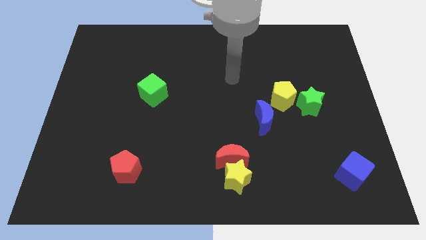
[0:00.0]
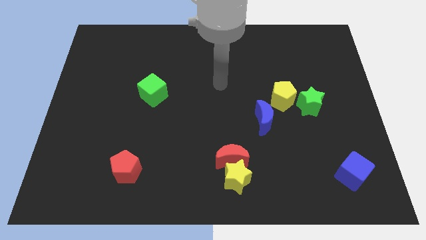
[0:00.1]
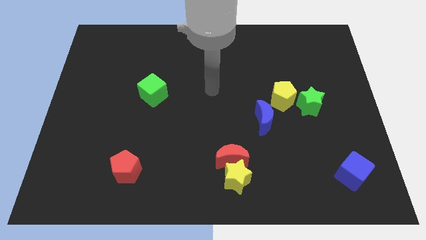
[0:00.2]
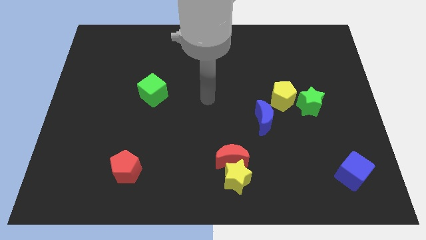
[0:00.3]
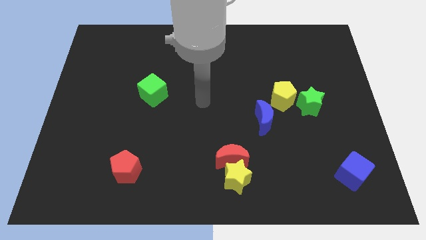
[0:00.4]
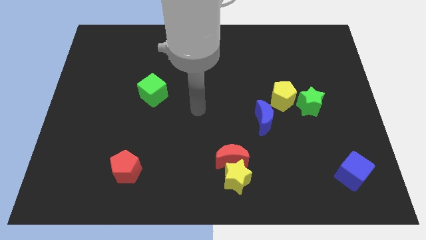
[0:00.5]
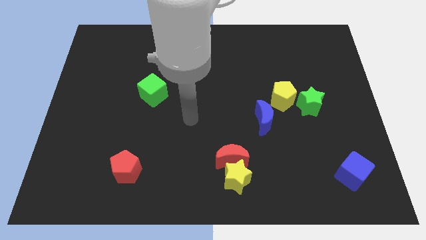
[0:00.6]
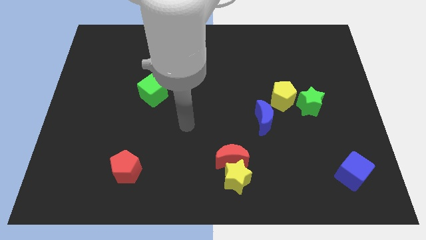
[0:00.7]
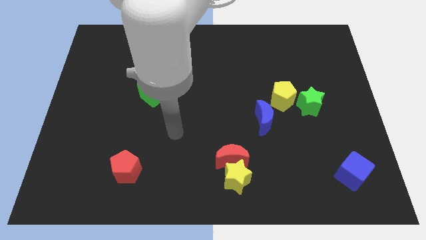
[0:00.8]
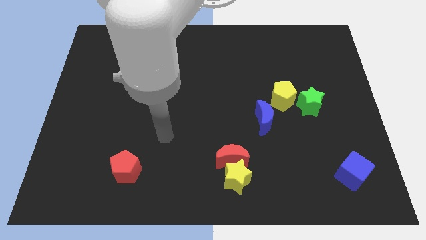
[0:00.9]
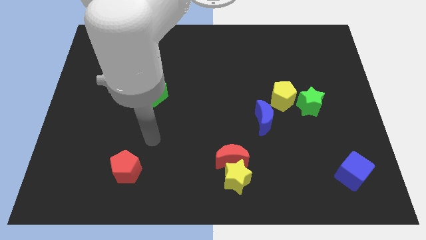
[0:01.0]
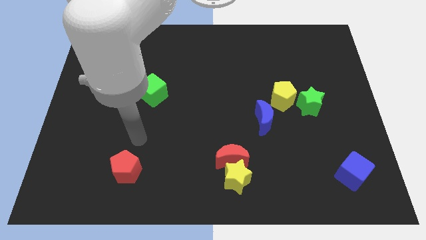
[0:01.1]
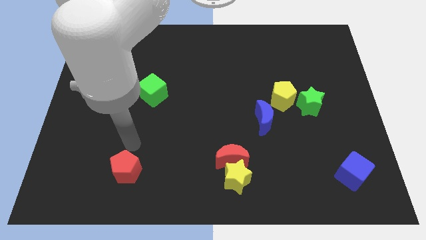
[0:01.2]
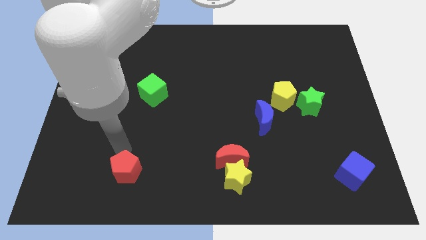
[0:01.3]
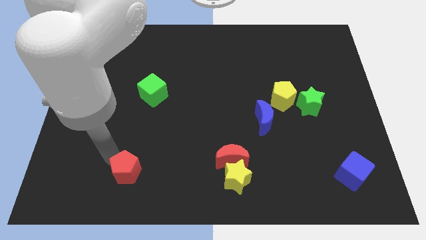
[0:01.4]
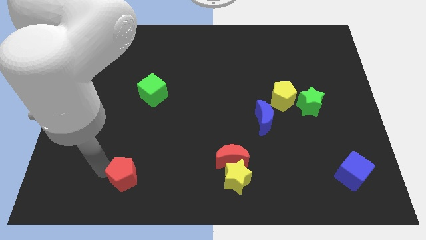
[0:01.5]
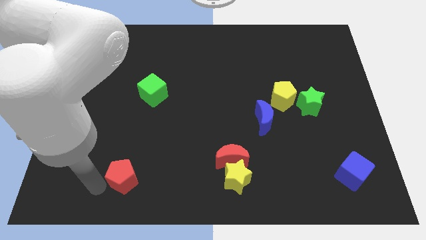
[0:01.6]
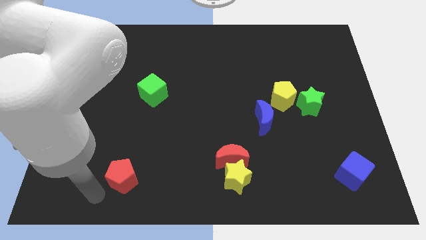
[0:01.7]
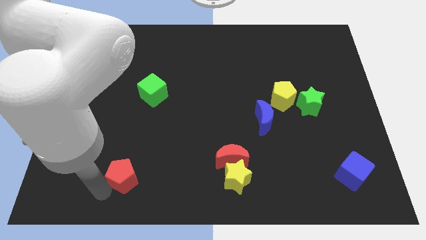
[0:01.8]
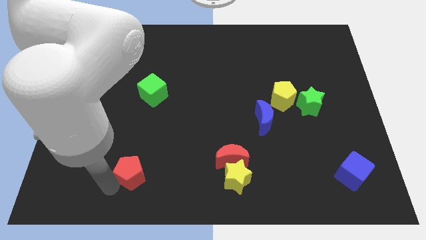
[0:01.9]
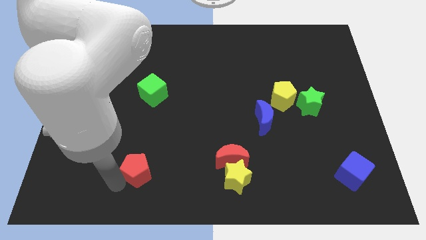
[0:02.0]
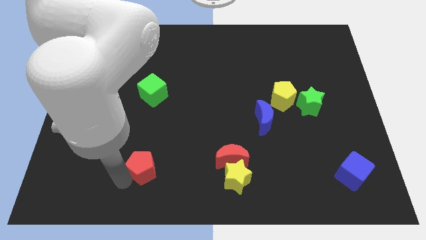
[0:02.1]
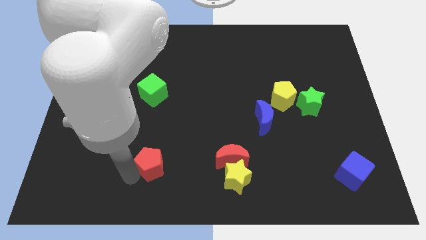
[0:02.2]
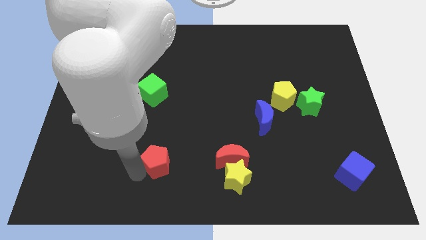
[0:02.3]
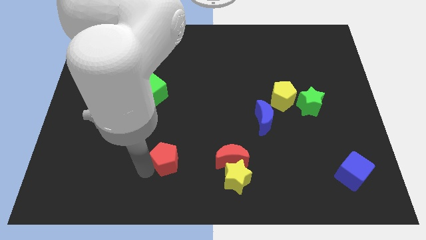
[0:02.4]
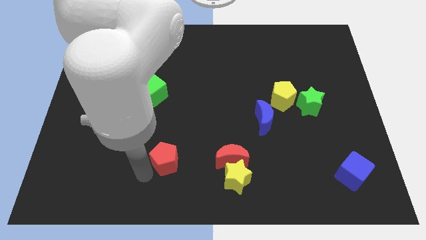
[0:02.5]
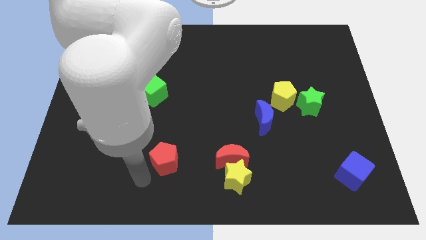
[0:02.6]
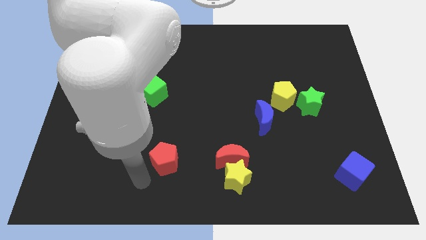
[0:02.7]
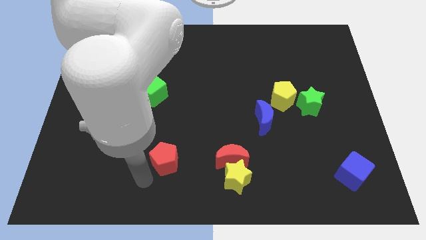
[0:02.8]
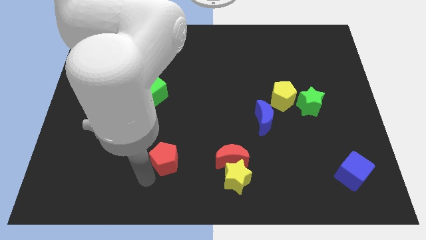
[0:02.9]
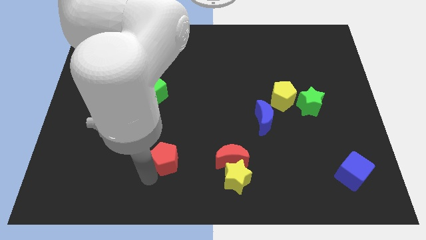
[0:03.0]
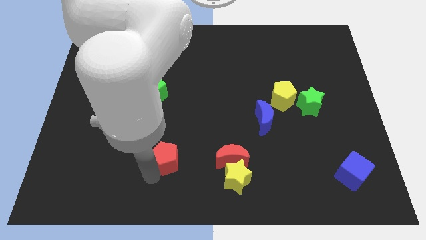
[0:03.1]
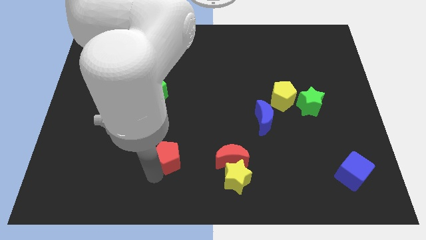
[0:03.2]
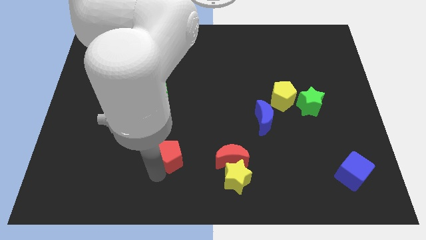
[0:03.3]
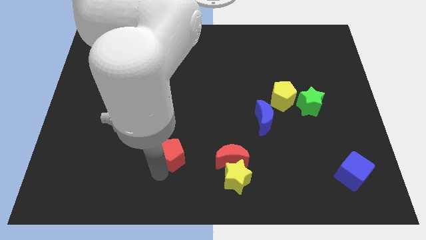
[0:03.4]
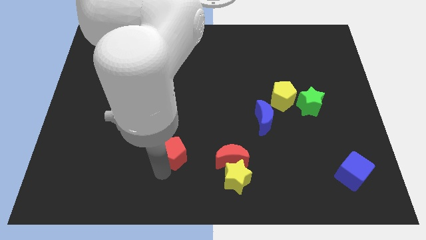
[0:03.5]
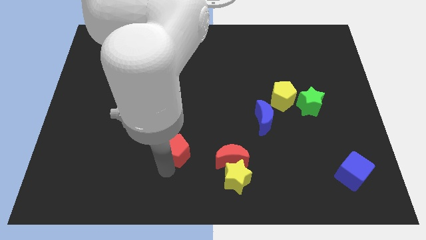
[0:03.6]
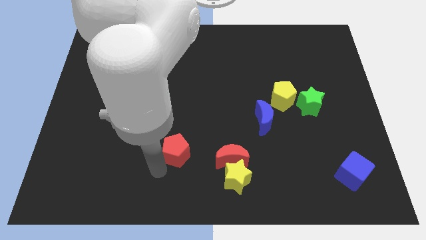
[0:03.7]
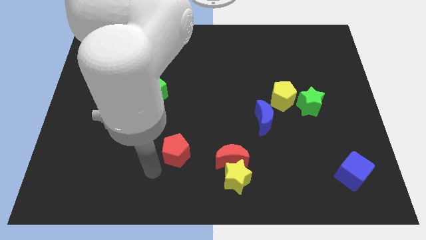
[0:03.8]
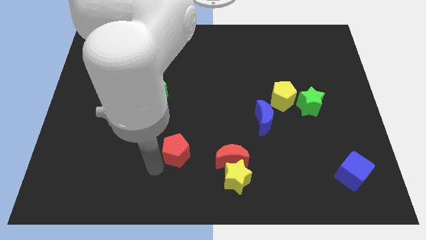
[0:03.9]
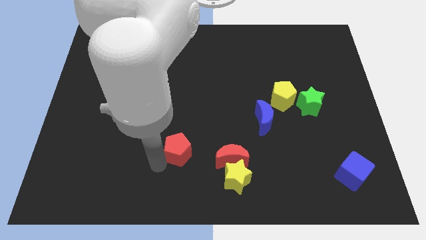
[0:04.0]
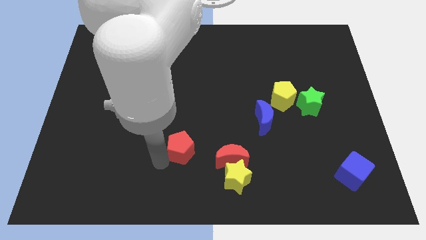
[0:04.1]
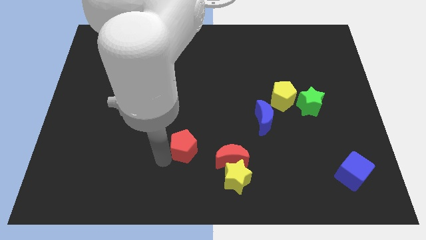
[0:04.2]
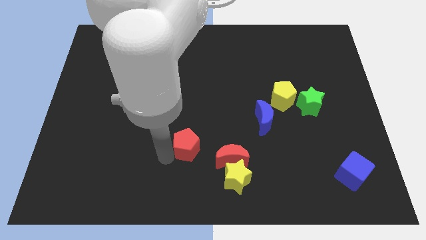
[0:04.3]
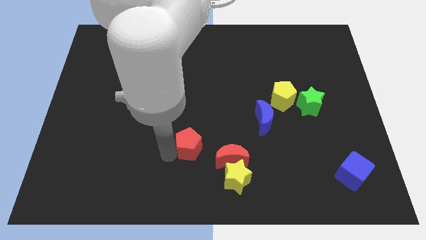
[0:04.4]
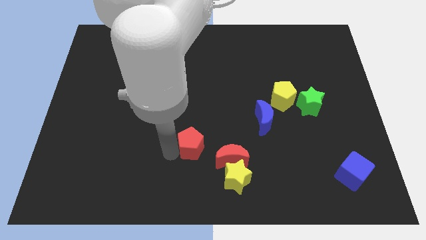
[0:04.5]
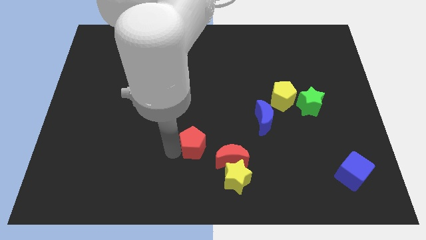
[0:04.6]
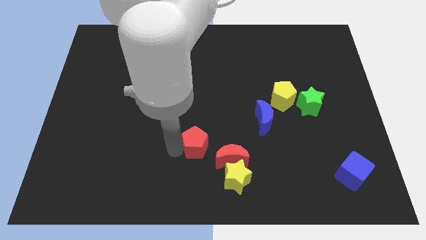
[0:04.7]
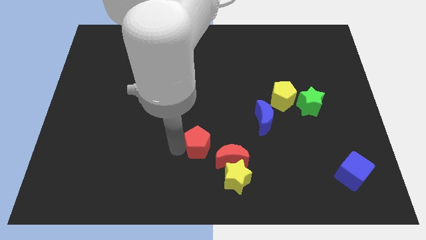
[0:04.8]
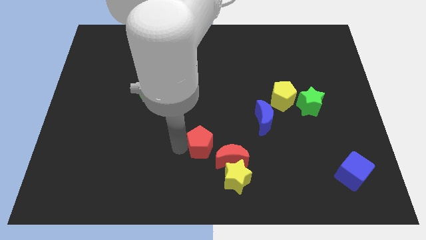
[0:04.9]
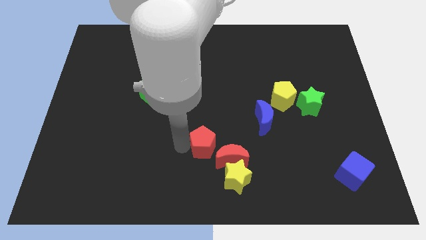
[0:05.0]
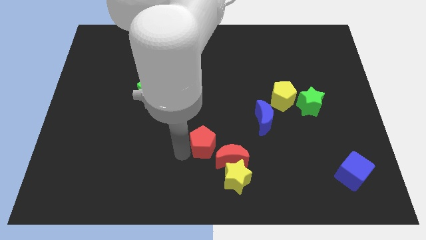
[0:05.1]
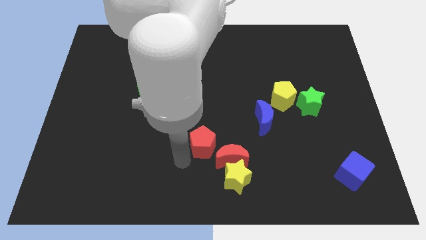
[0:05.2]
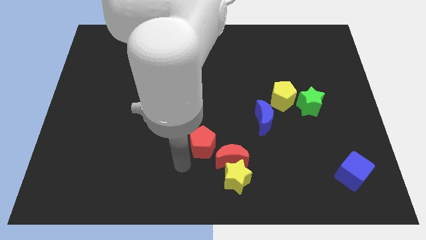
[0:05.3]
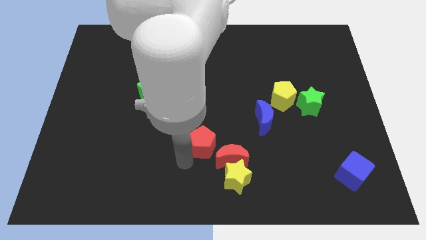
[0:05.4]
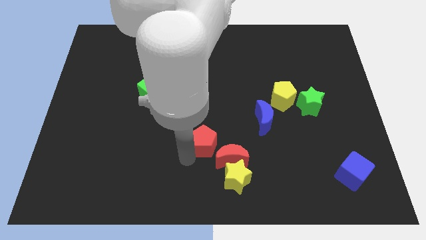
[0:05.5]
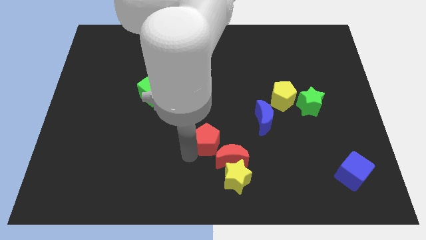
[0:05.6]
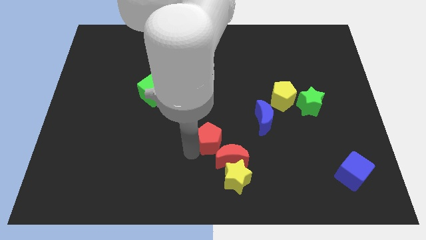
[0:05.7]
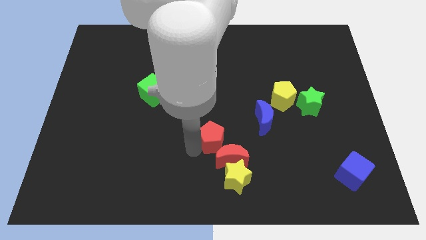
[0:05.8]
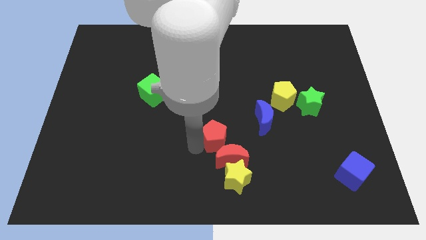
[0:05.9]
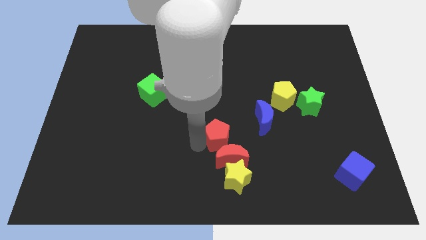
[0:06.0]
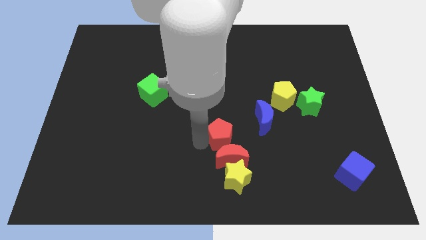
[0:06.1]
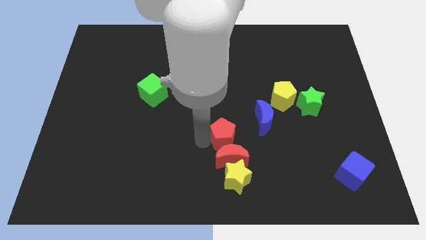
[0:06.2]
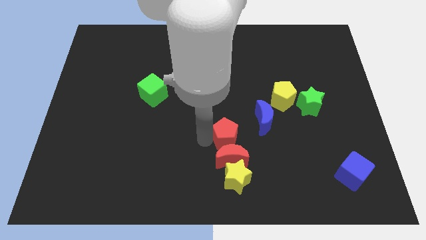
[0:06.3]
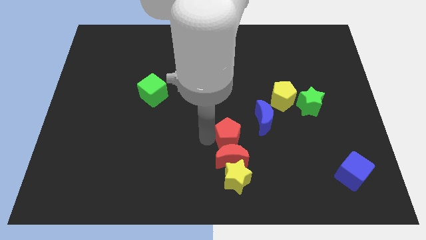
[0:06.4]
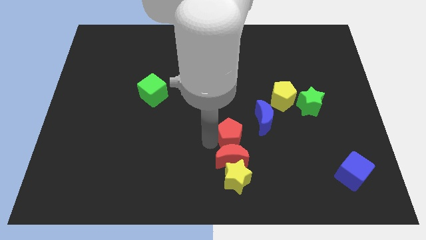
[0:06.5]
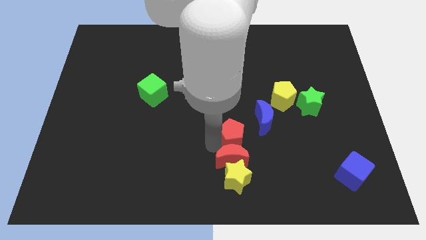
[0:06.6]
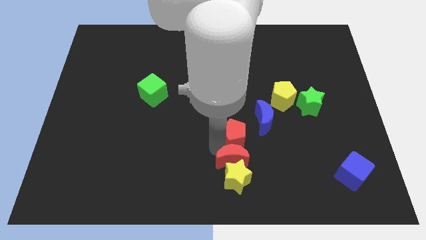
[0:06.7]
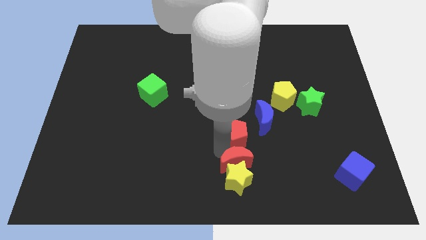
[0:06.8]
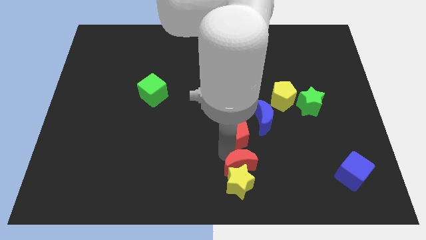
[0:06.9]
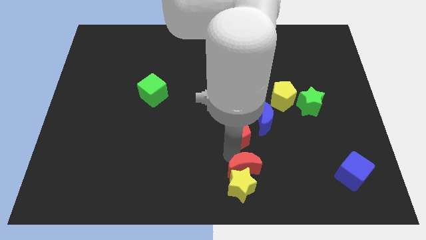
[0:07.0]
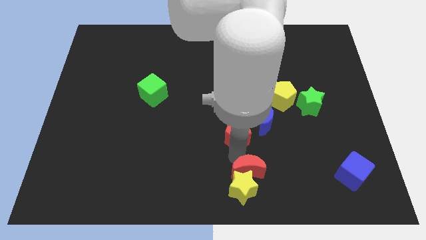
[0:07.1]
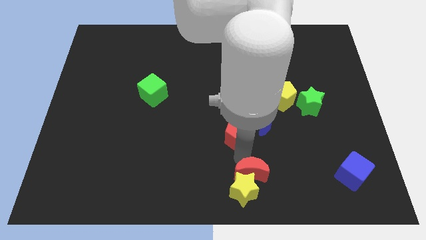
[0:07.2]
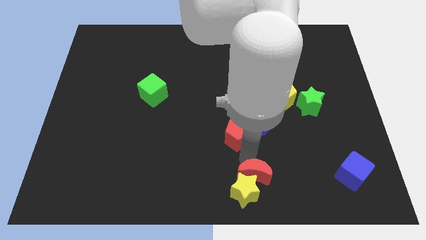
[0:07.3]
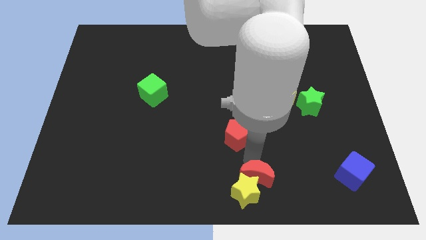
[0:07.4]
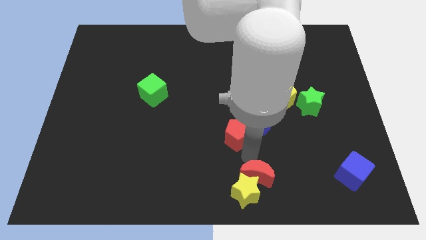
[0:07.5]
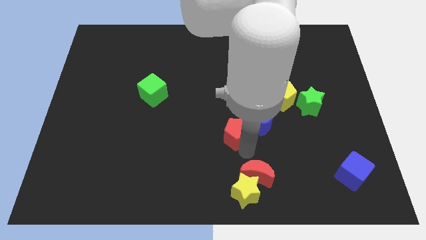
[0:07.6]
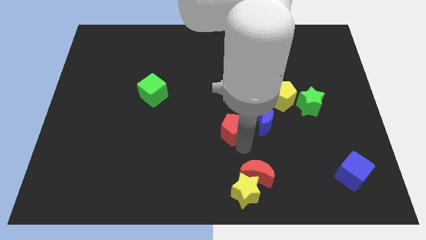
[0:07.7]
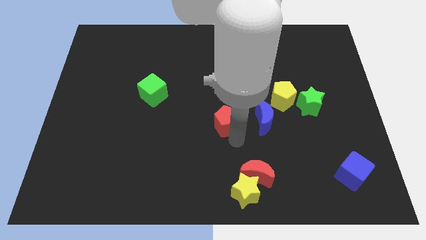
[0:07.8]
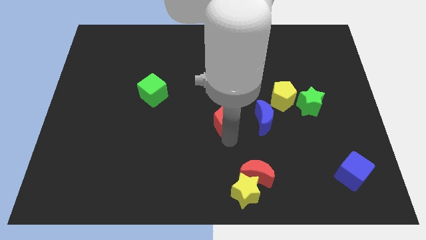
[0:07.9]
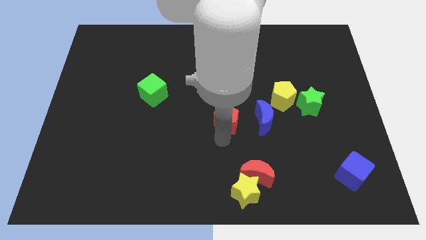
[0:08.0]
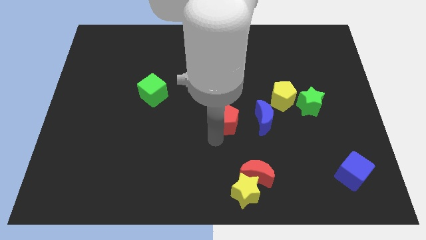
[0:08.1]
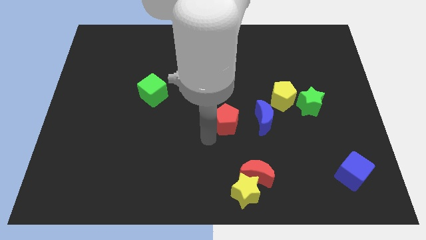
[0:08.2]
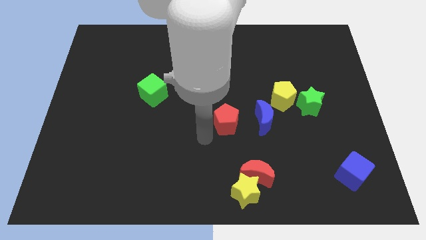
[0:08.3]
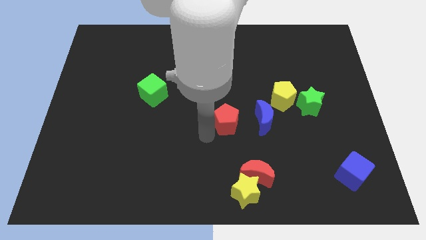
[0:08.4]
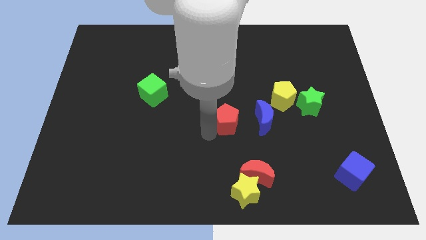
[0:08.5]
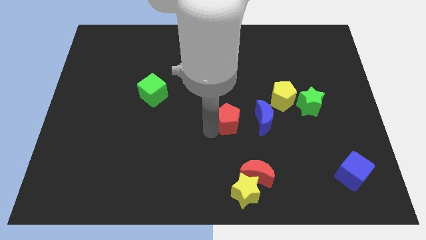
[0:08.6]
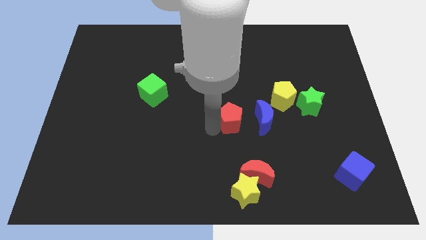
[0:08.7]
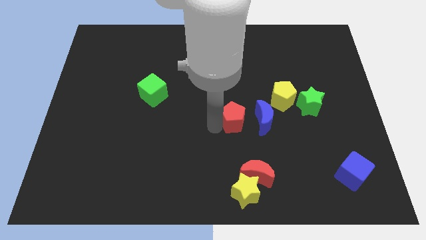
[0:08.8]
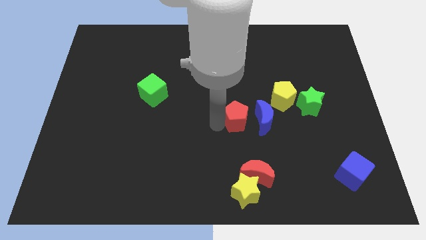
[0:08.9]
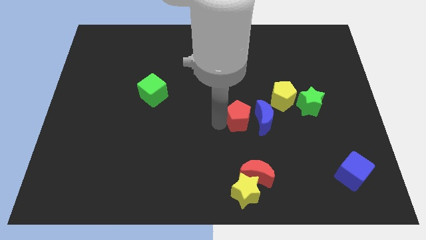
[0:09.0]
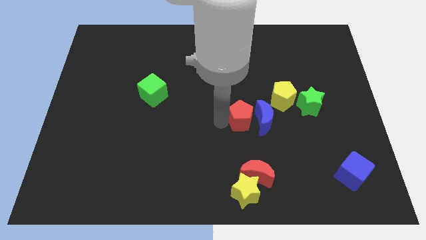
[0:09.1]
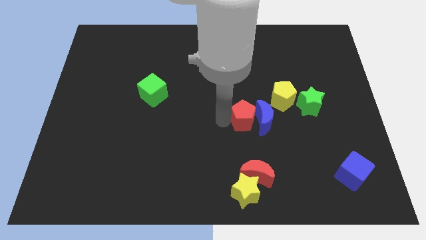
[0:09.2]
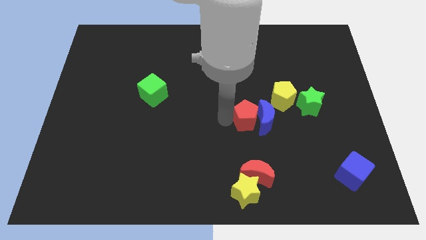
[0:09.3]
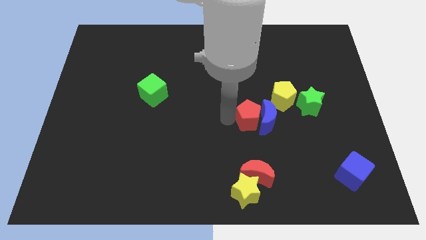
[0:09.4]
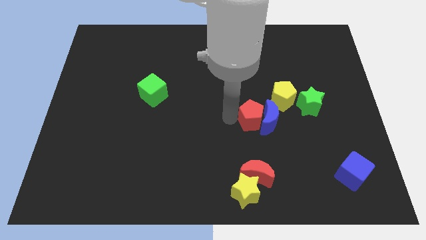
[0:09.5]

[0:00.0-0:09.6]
put the red pentagon just left of the green star
